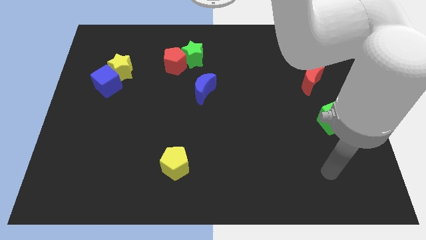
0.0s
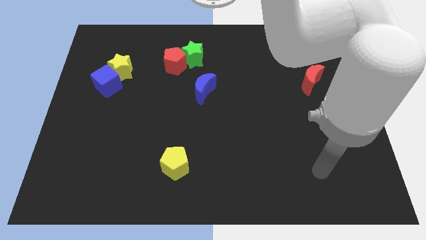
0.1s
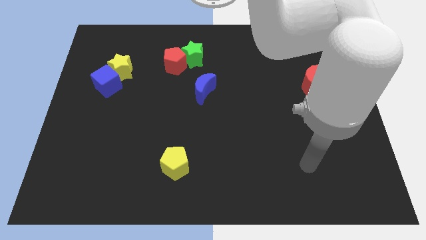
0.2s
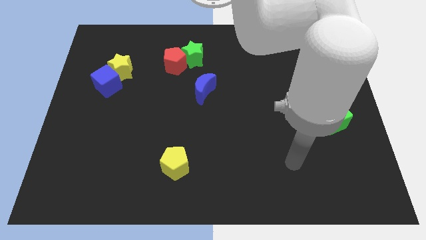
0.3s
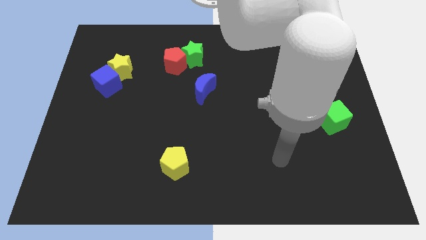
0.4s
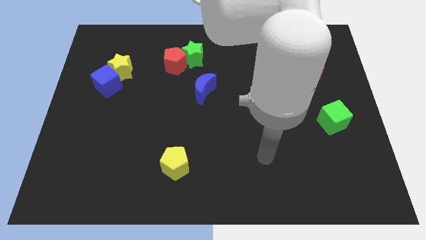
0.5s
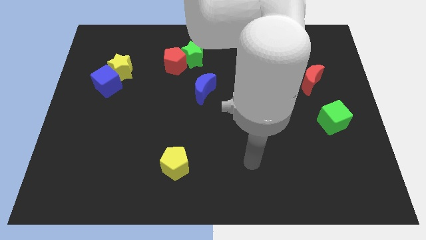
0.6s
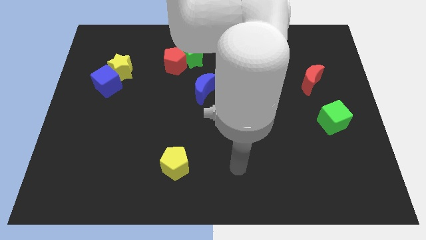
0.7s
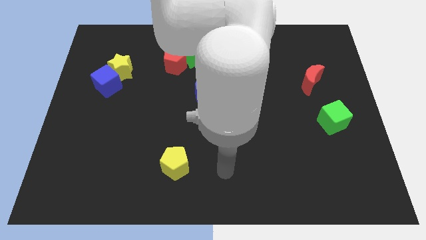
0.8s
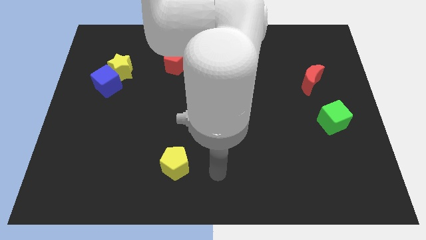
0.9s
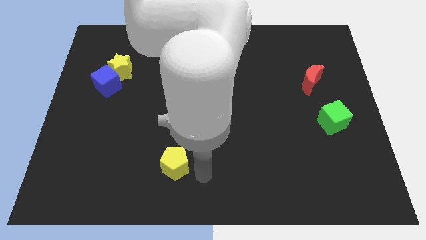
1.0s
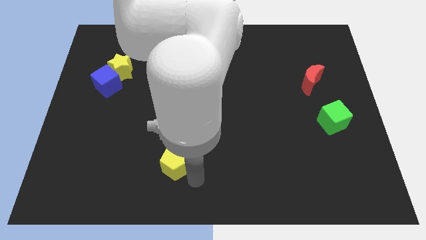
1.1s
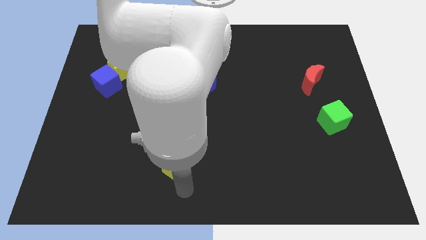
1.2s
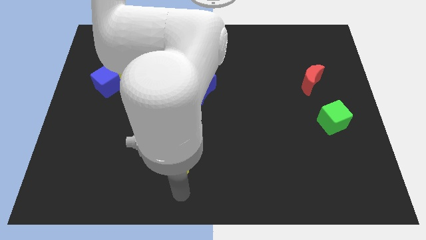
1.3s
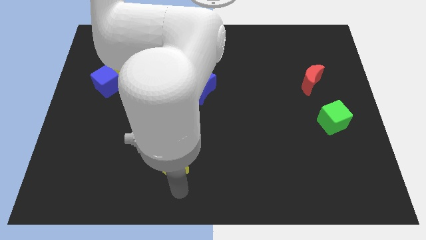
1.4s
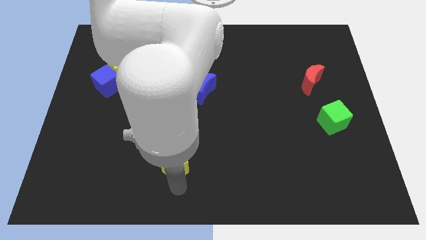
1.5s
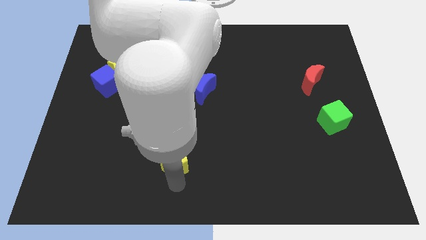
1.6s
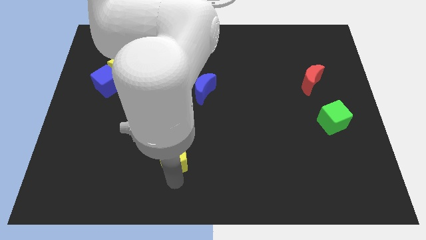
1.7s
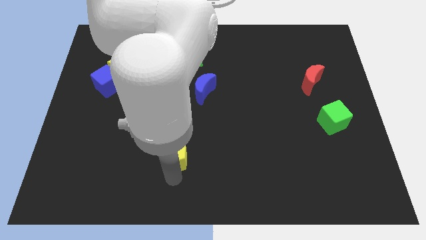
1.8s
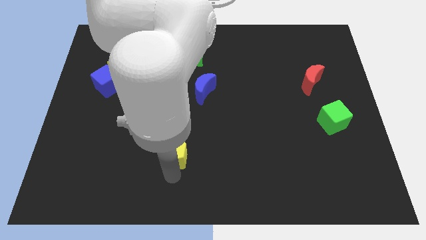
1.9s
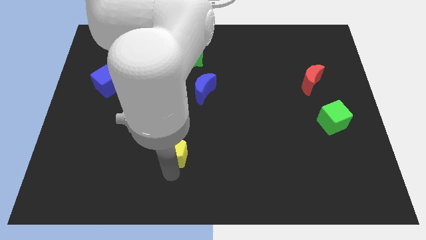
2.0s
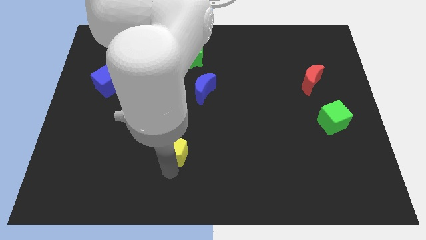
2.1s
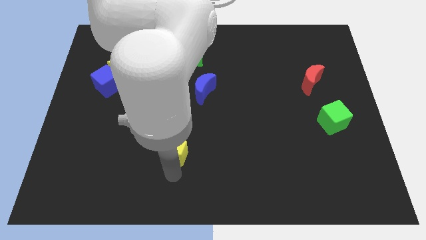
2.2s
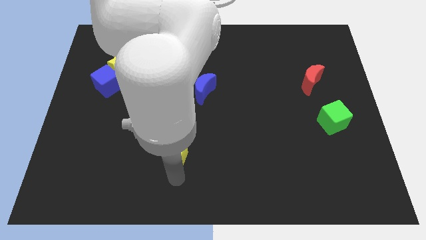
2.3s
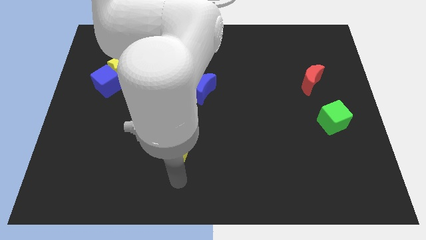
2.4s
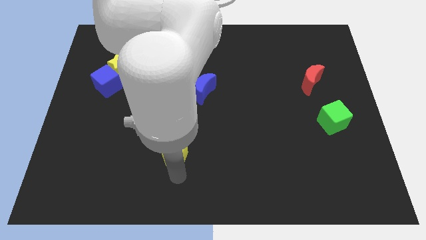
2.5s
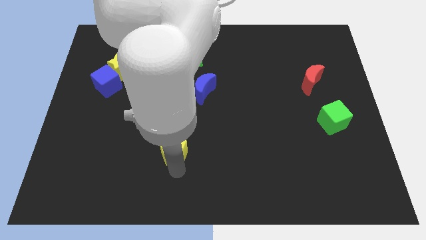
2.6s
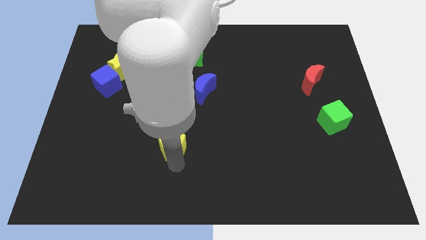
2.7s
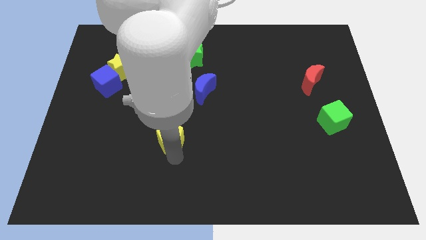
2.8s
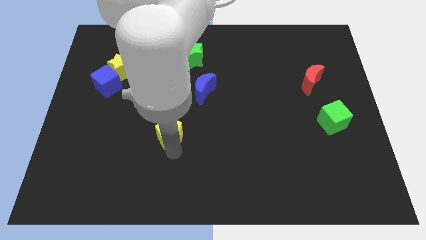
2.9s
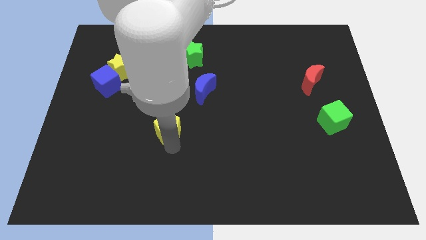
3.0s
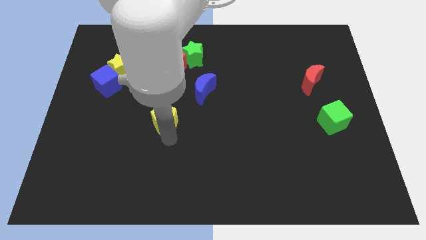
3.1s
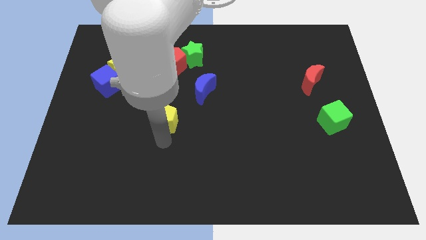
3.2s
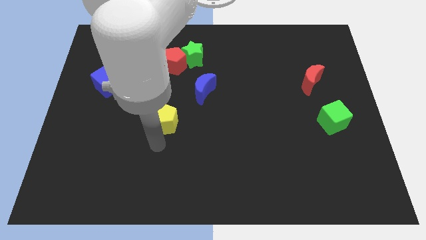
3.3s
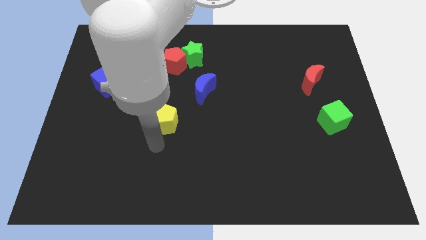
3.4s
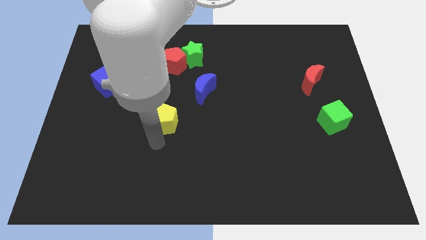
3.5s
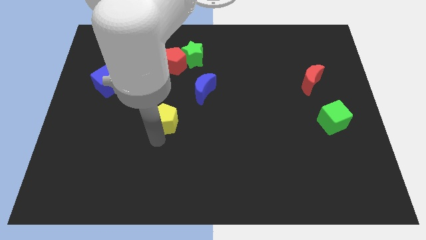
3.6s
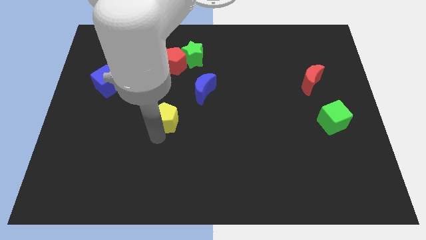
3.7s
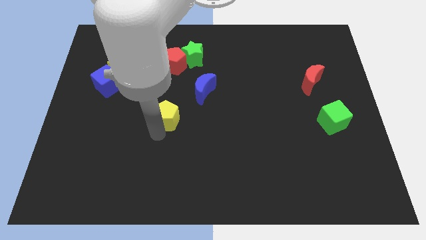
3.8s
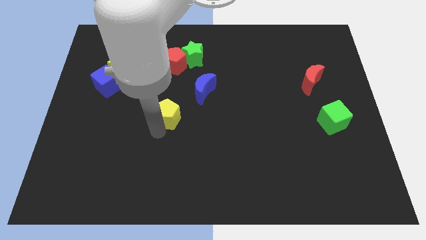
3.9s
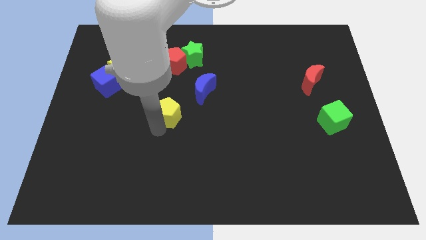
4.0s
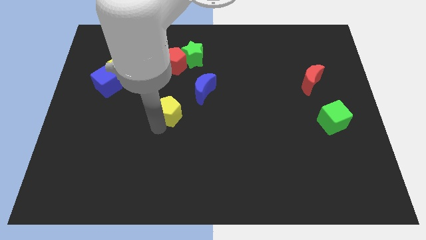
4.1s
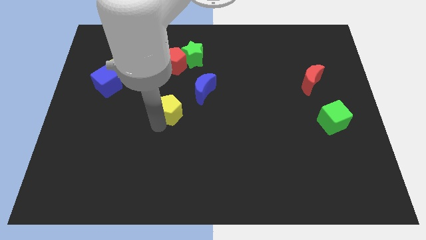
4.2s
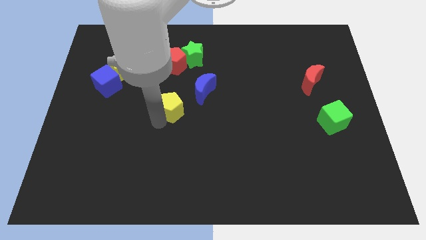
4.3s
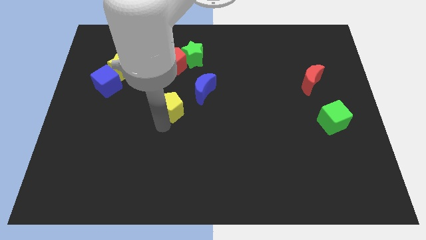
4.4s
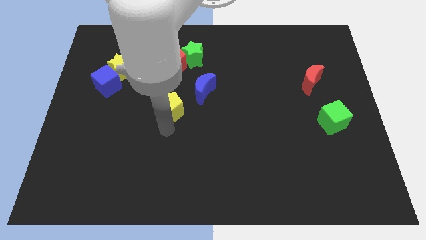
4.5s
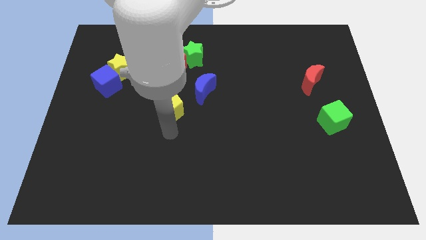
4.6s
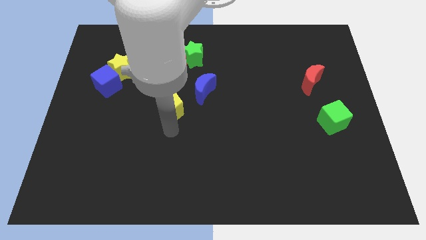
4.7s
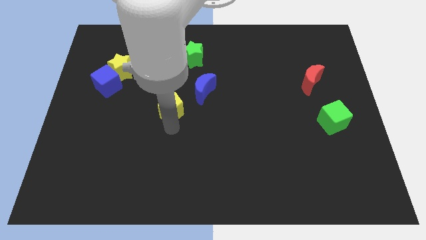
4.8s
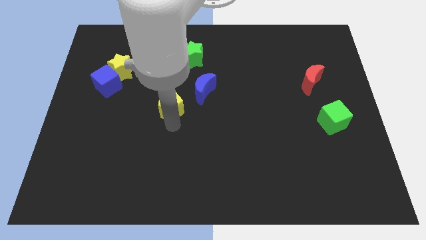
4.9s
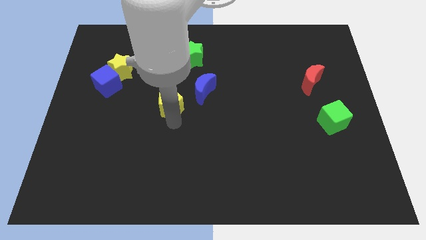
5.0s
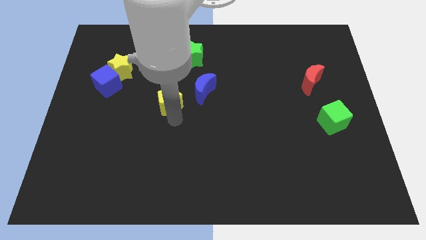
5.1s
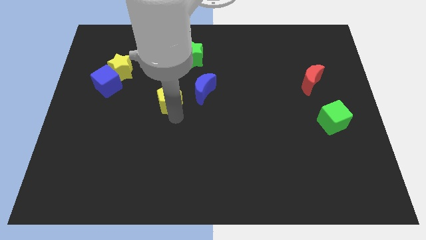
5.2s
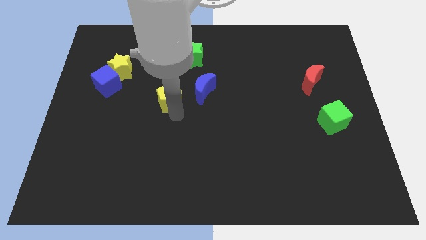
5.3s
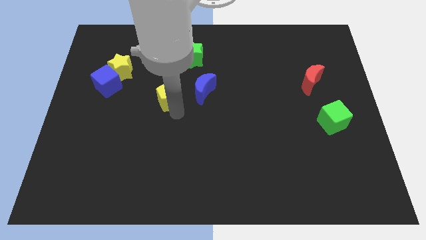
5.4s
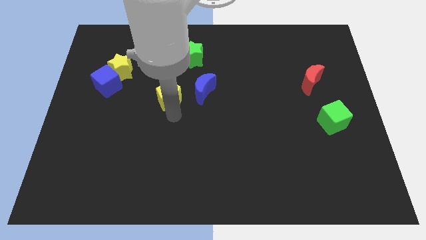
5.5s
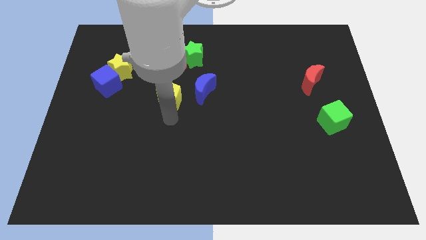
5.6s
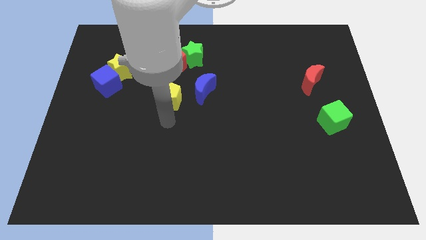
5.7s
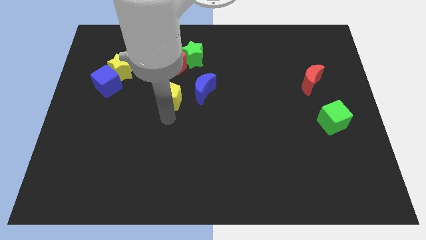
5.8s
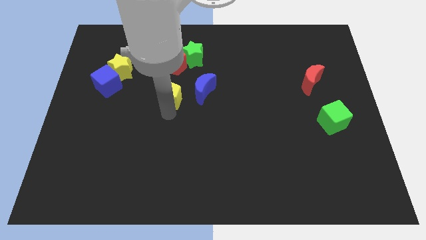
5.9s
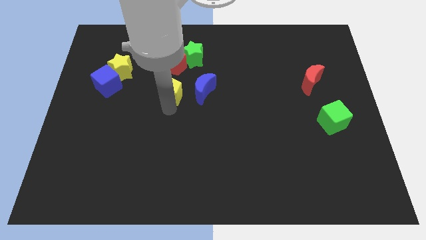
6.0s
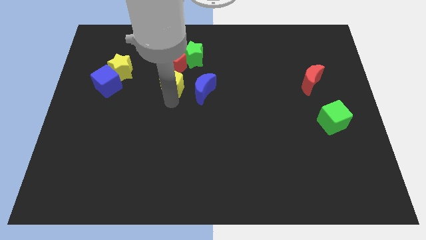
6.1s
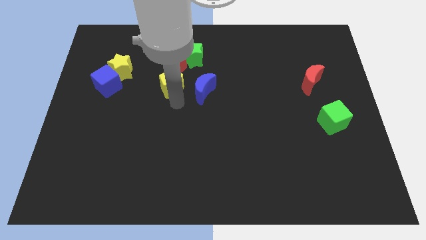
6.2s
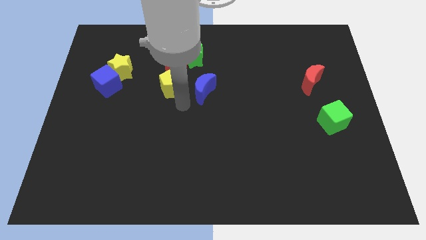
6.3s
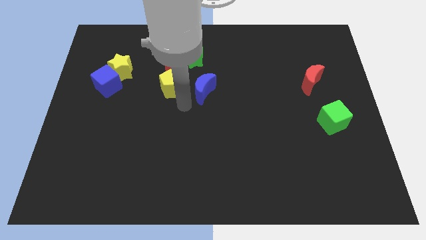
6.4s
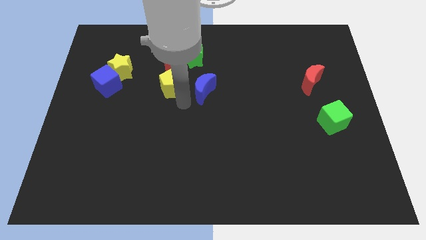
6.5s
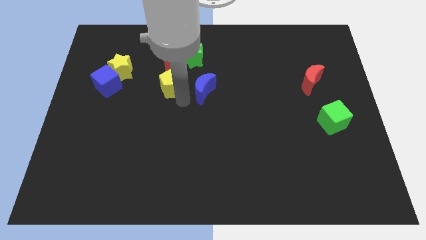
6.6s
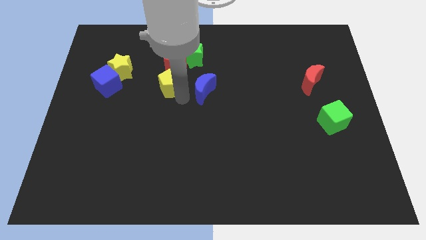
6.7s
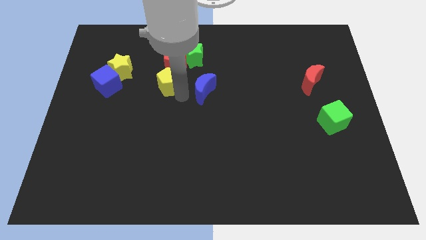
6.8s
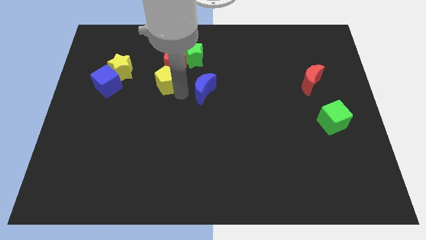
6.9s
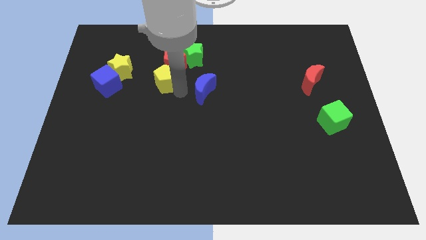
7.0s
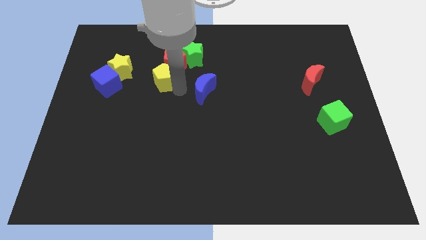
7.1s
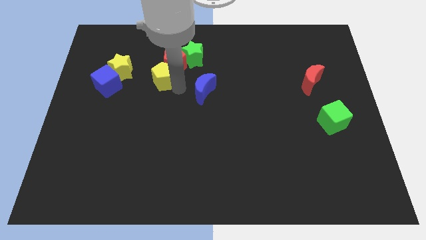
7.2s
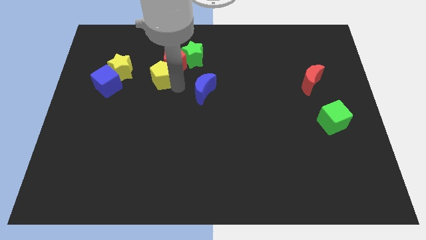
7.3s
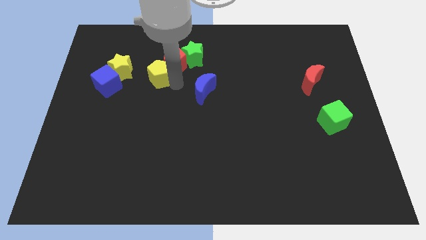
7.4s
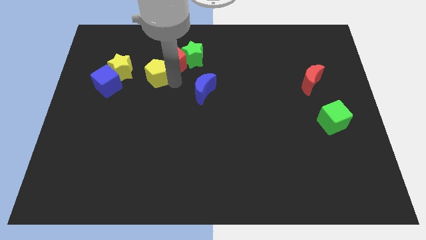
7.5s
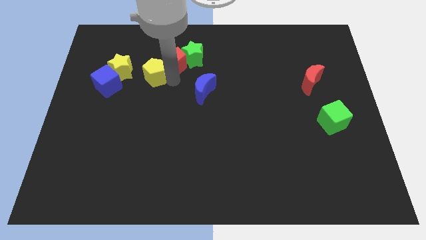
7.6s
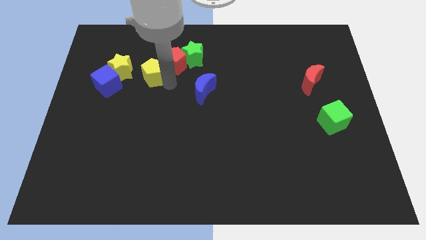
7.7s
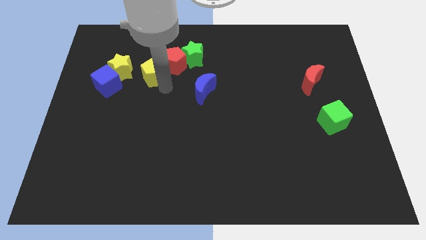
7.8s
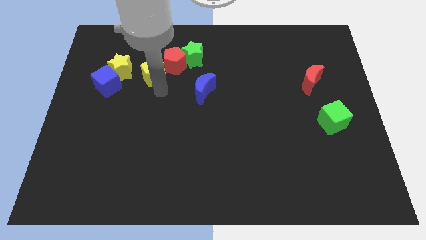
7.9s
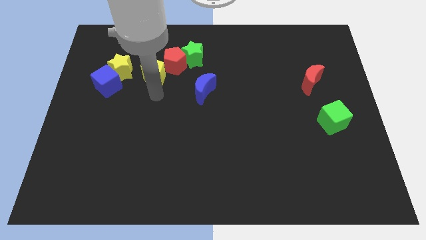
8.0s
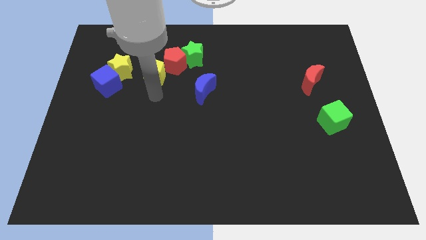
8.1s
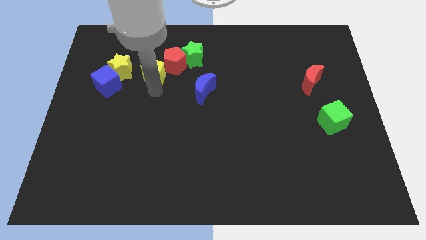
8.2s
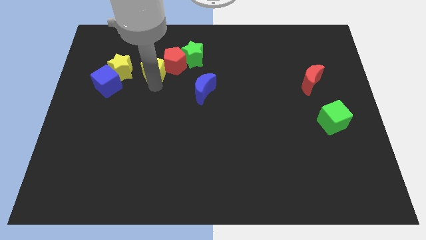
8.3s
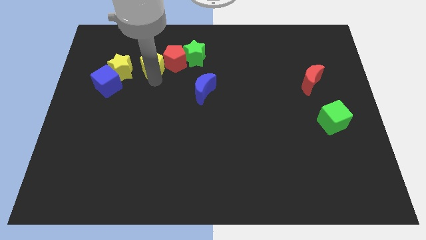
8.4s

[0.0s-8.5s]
push the yellow pentagon to the left of the green star
